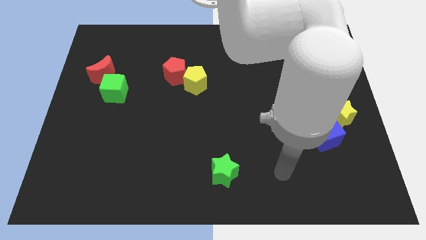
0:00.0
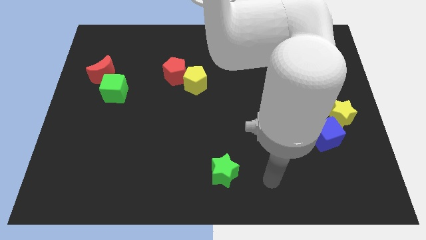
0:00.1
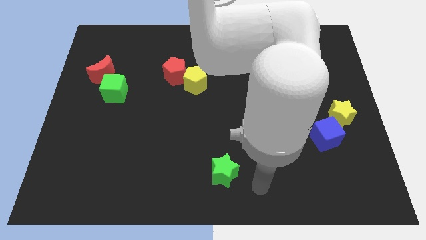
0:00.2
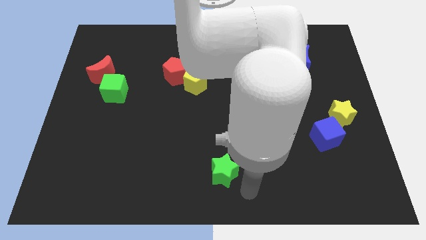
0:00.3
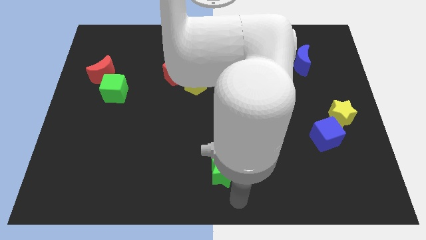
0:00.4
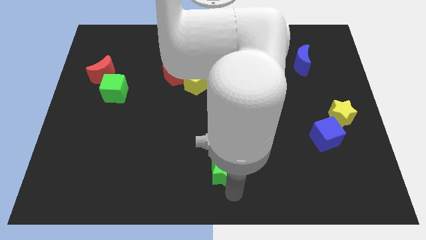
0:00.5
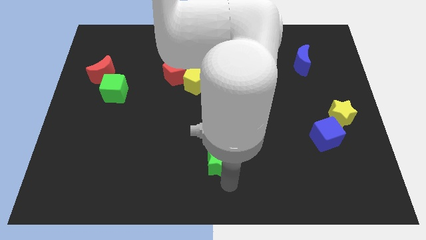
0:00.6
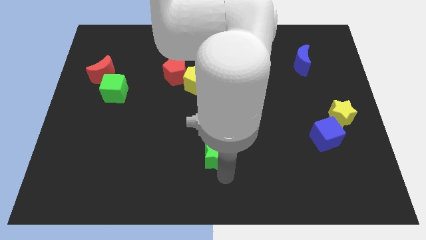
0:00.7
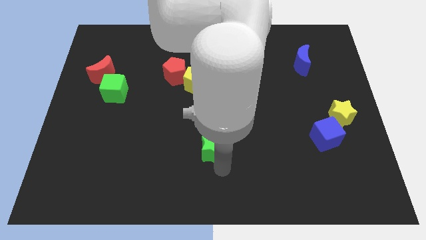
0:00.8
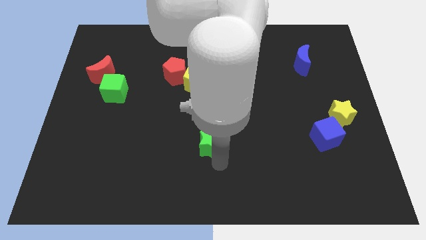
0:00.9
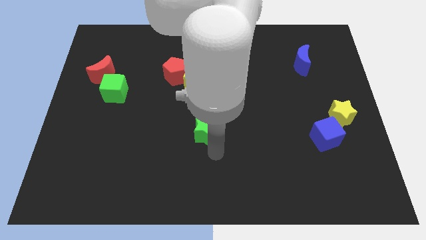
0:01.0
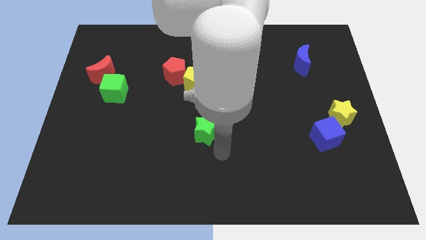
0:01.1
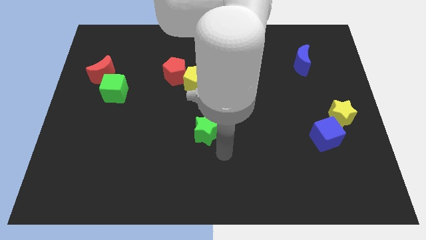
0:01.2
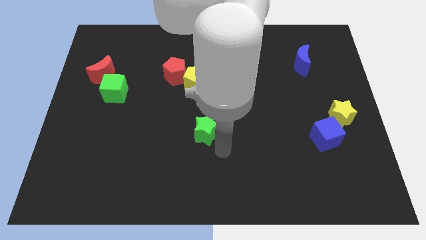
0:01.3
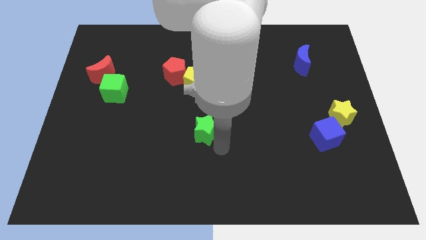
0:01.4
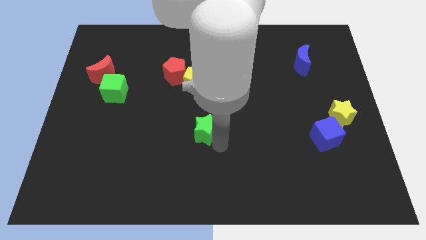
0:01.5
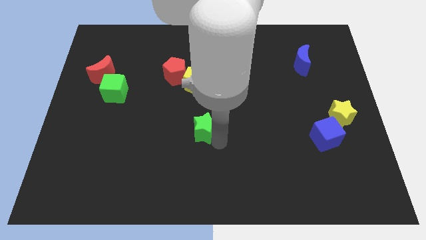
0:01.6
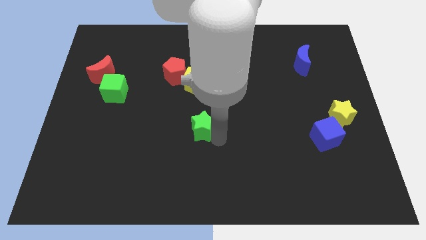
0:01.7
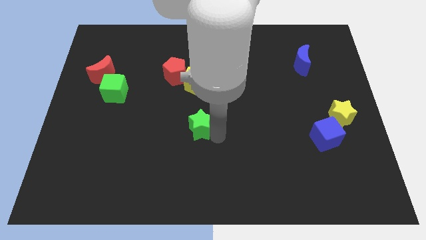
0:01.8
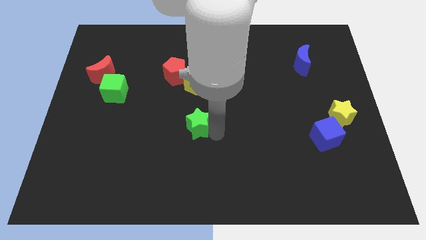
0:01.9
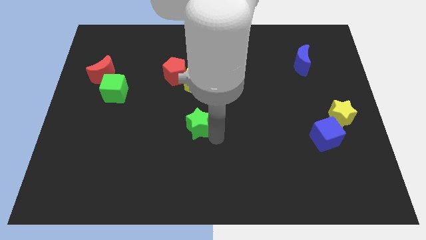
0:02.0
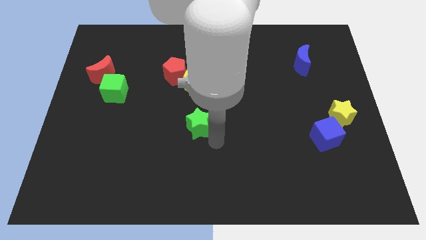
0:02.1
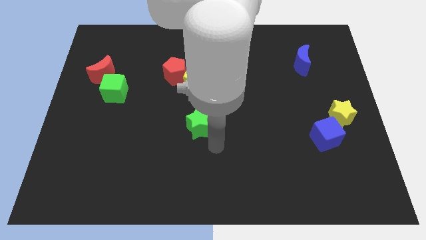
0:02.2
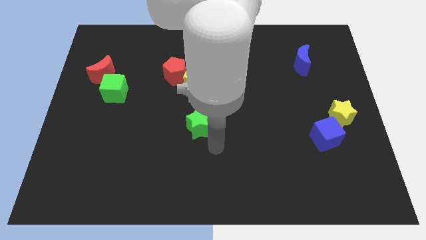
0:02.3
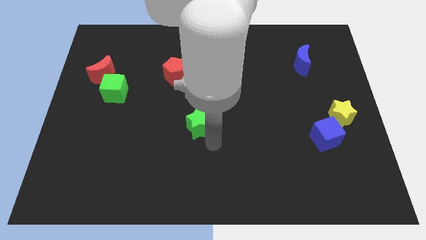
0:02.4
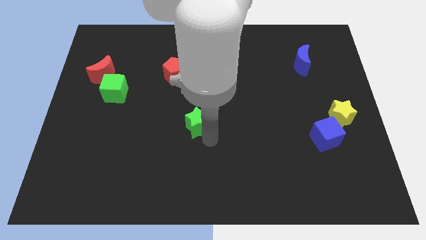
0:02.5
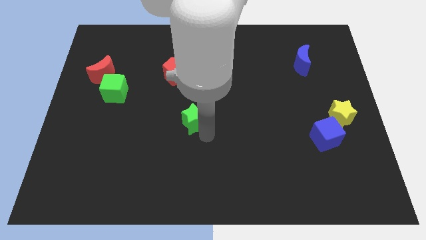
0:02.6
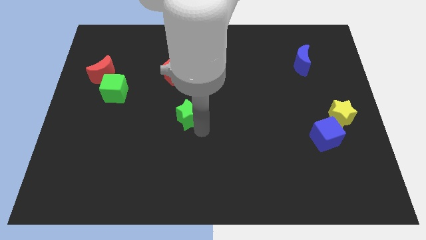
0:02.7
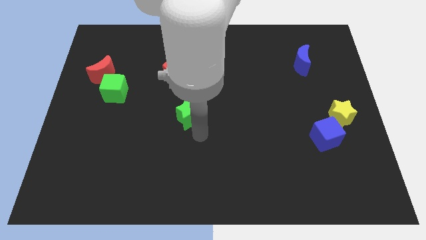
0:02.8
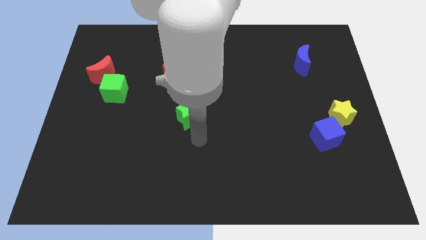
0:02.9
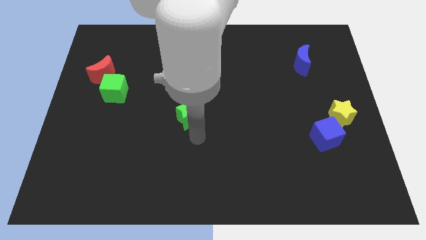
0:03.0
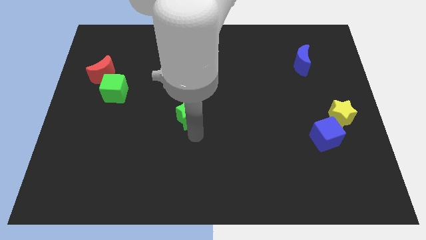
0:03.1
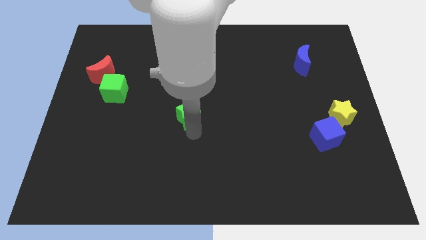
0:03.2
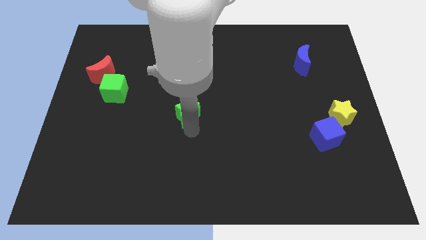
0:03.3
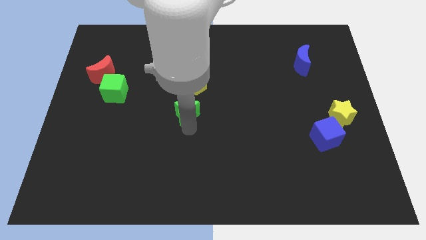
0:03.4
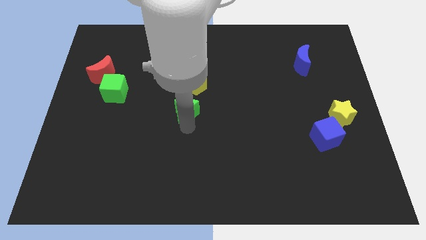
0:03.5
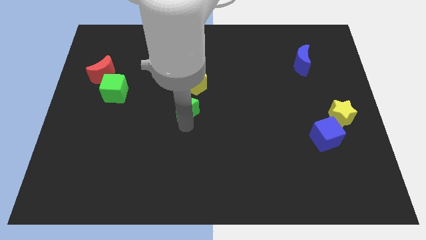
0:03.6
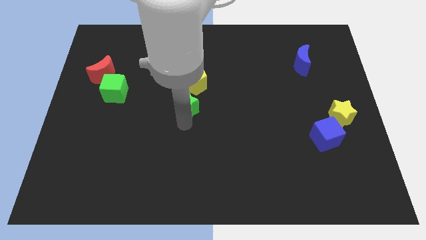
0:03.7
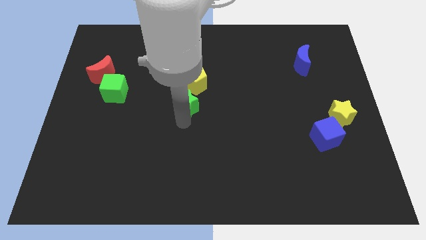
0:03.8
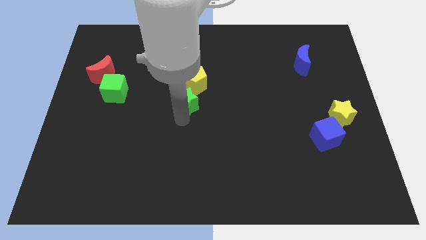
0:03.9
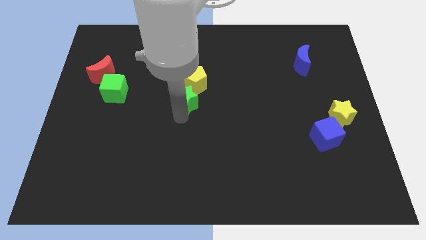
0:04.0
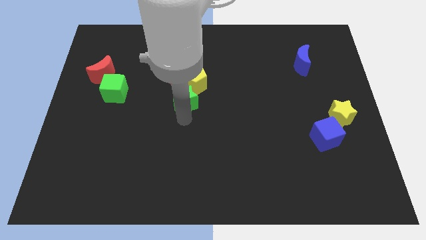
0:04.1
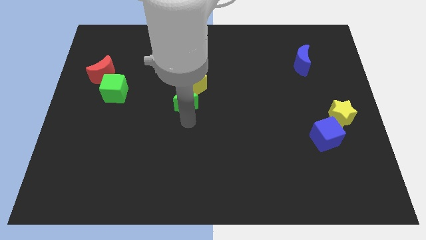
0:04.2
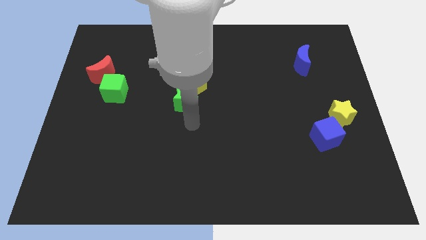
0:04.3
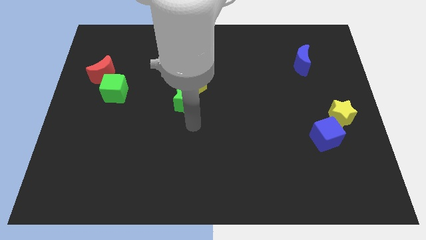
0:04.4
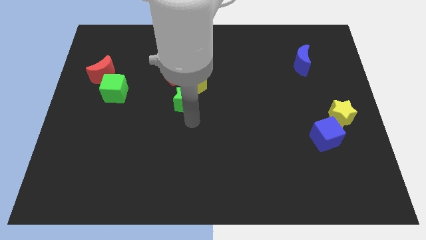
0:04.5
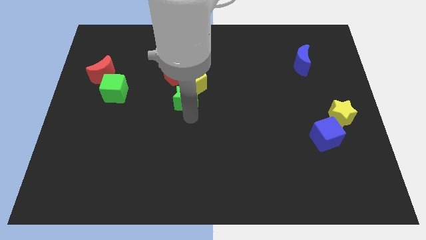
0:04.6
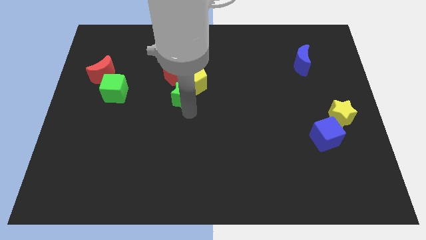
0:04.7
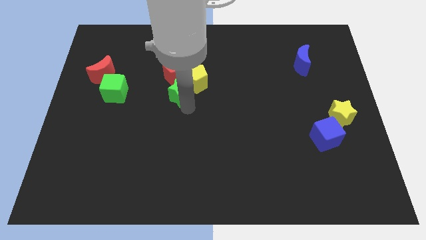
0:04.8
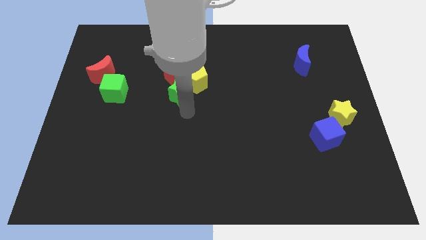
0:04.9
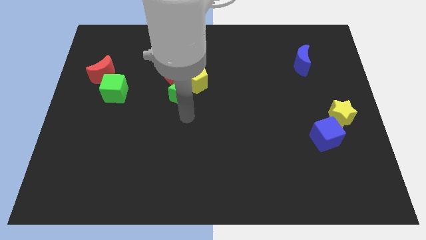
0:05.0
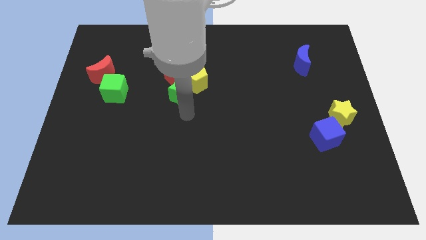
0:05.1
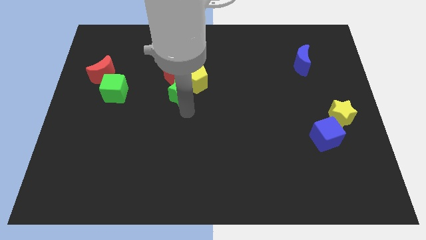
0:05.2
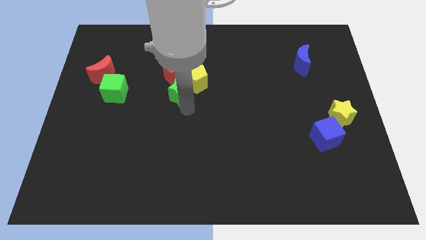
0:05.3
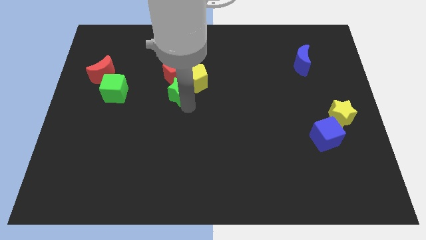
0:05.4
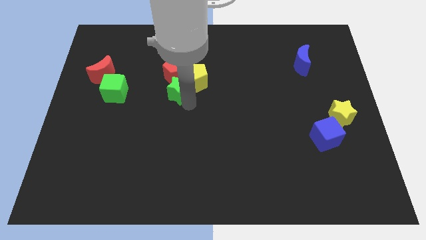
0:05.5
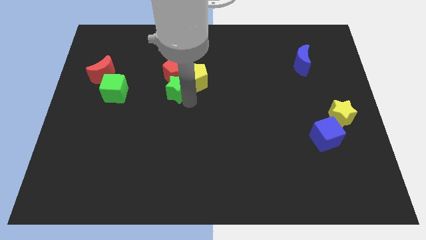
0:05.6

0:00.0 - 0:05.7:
push the green star next to the red pentagon

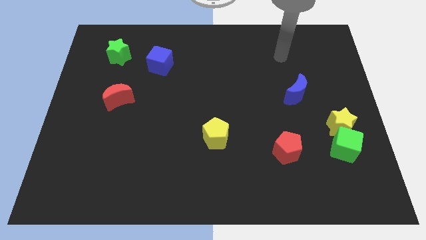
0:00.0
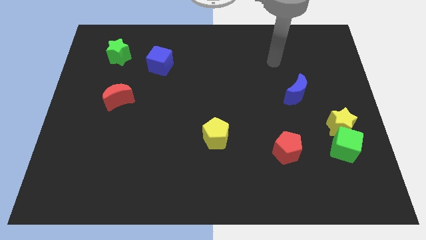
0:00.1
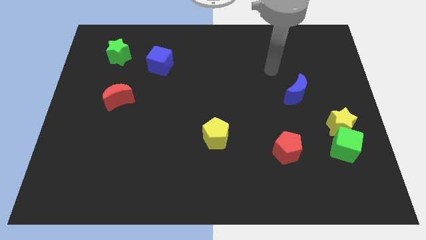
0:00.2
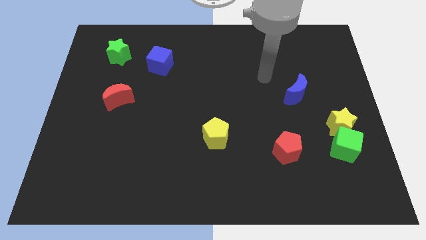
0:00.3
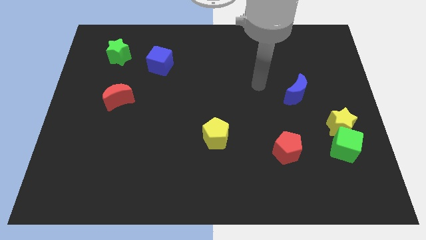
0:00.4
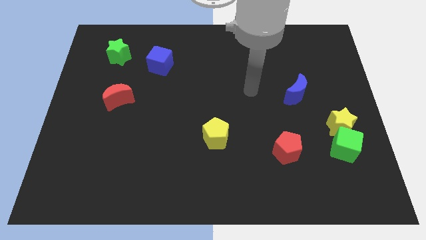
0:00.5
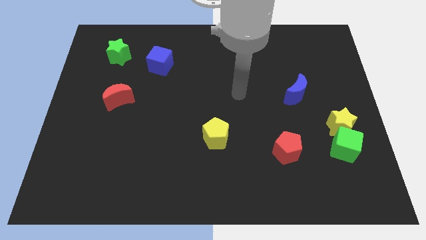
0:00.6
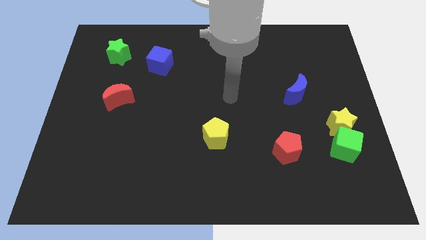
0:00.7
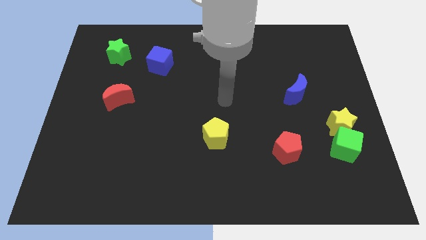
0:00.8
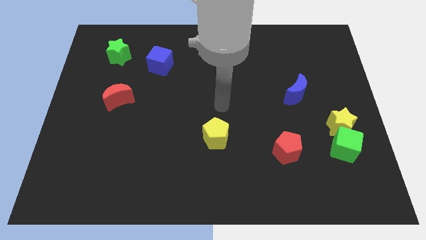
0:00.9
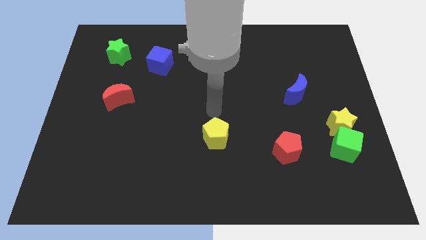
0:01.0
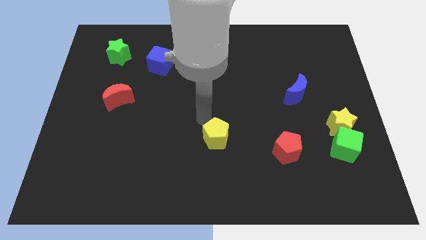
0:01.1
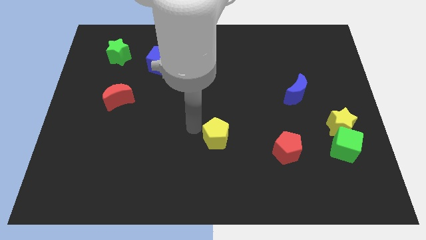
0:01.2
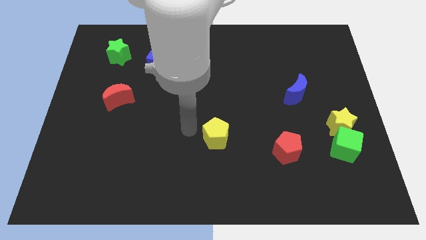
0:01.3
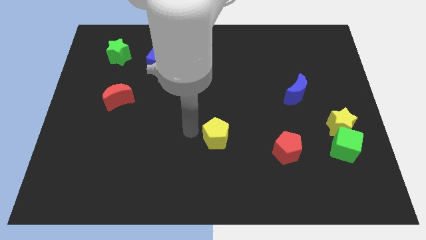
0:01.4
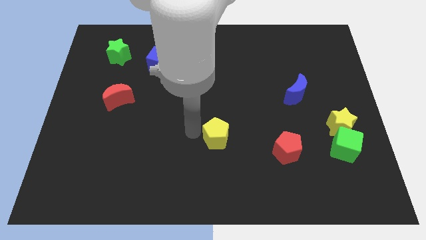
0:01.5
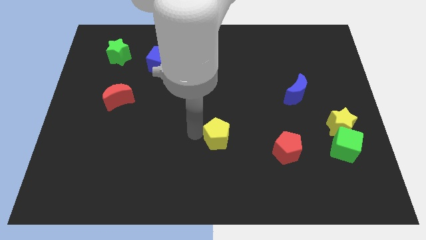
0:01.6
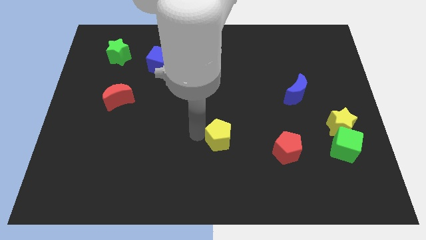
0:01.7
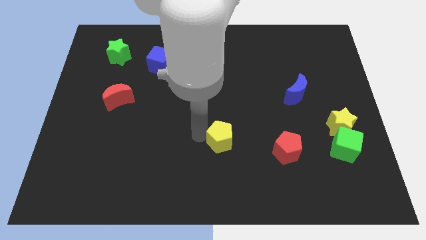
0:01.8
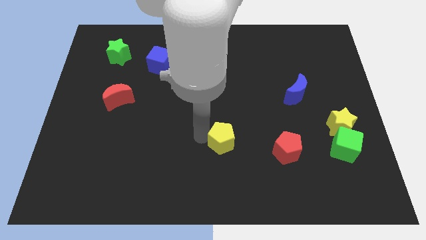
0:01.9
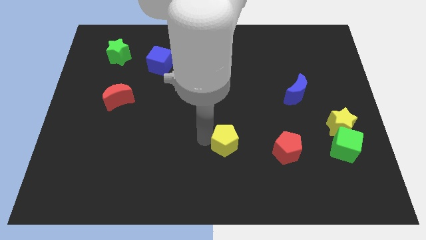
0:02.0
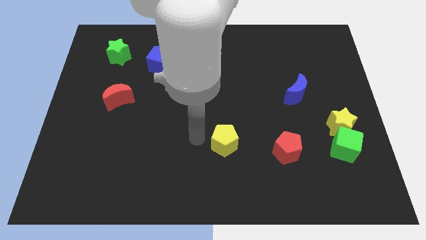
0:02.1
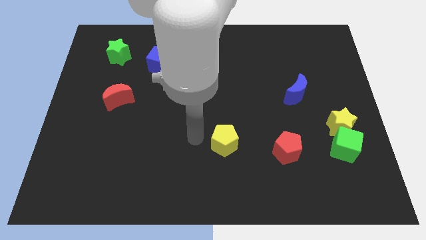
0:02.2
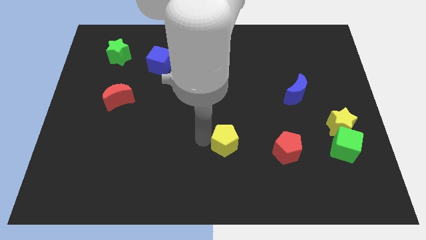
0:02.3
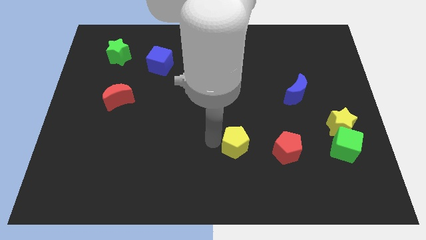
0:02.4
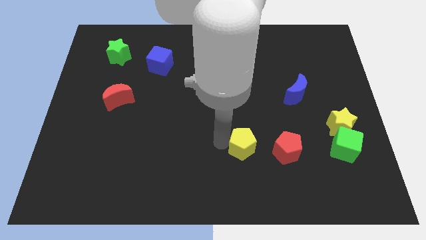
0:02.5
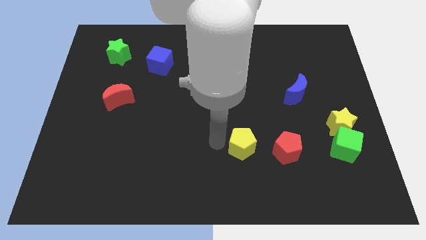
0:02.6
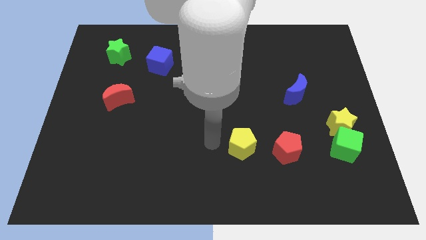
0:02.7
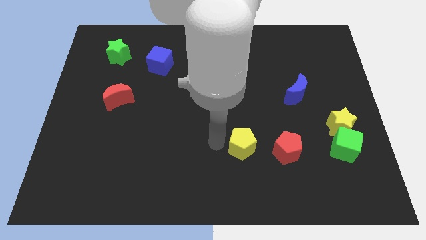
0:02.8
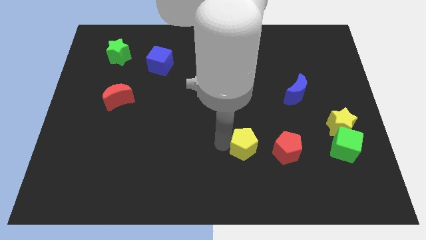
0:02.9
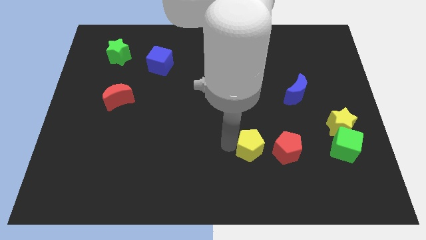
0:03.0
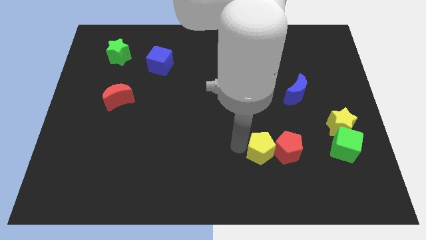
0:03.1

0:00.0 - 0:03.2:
move the yellow pentagon next to the red pentagon
